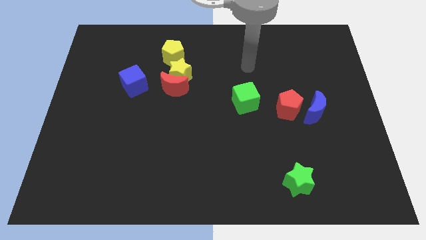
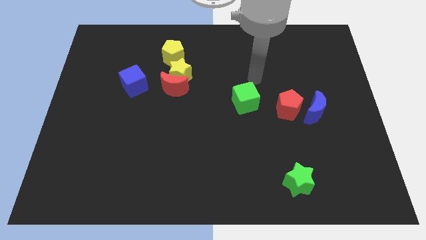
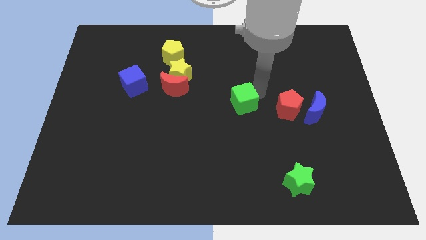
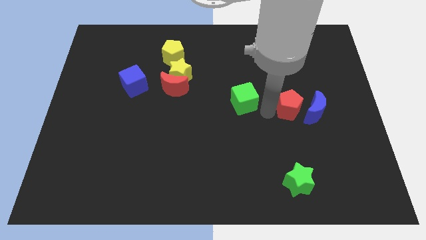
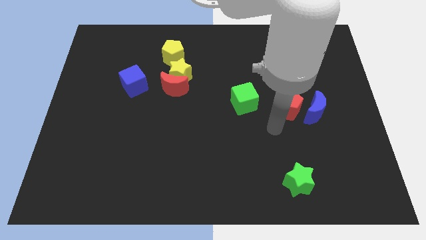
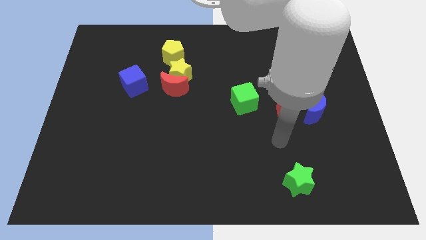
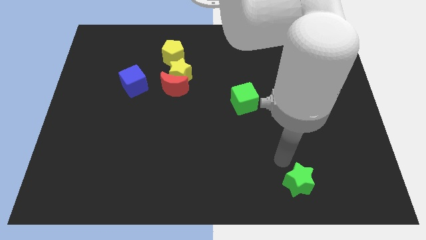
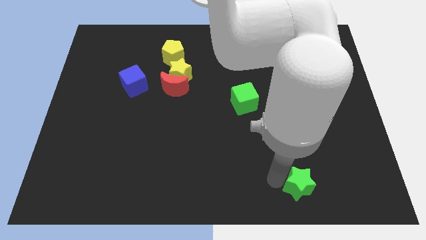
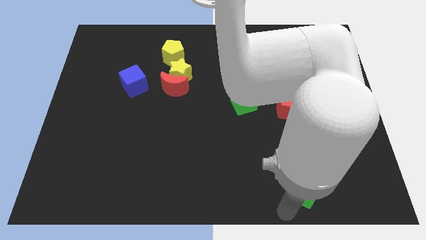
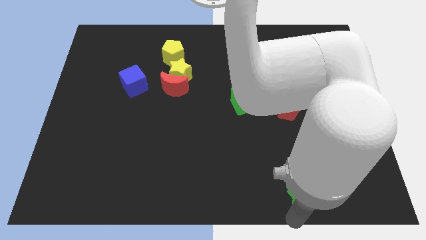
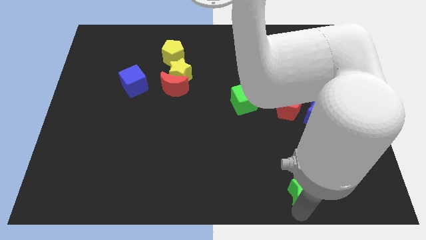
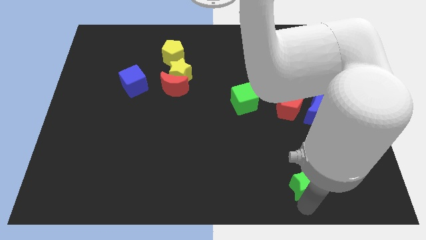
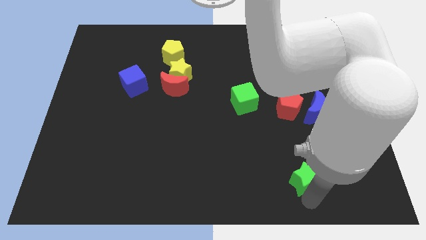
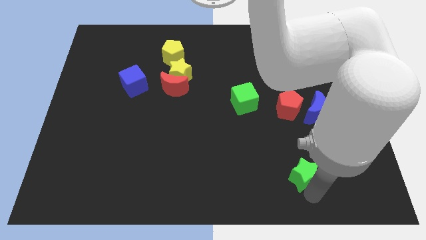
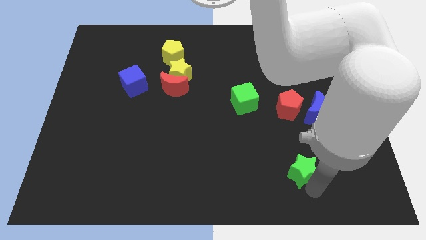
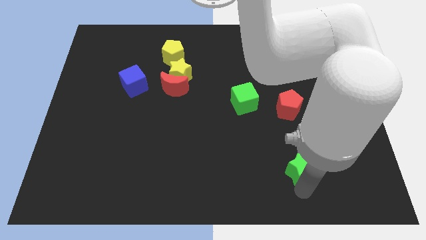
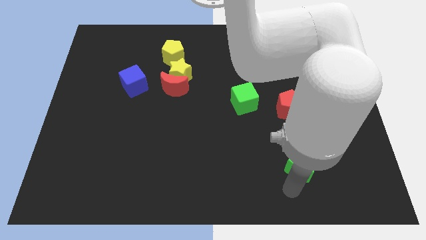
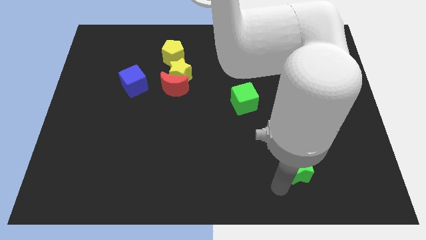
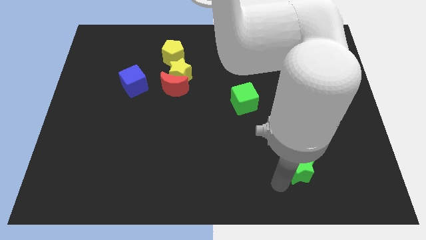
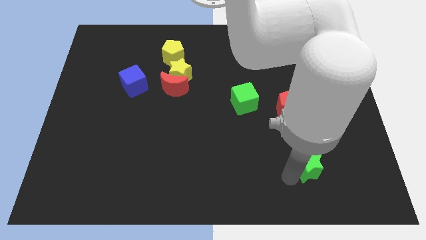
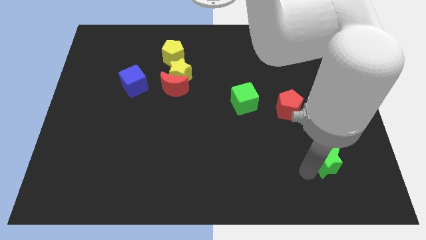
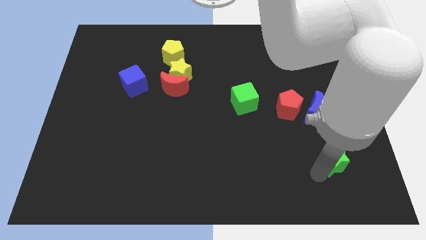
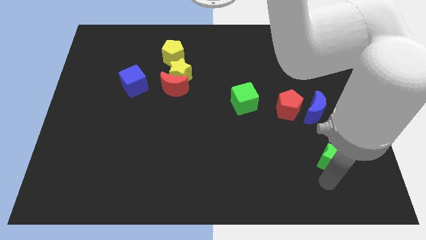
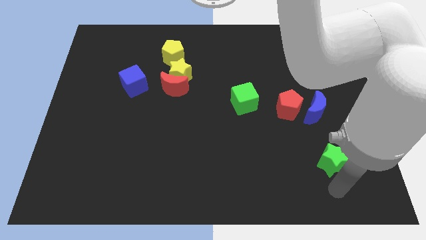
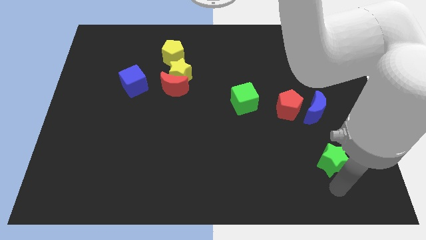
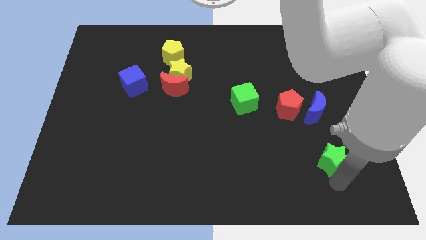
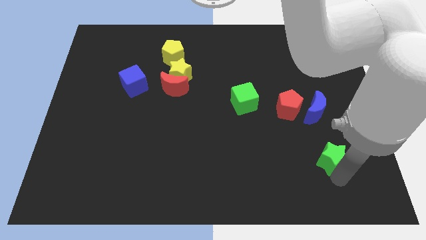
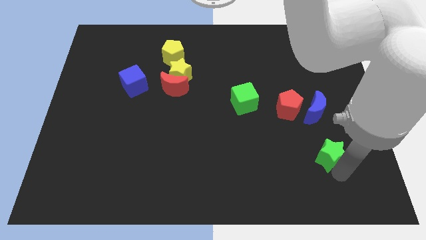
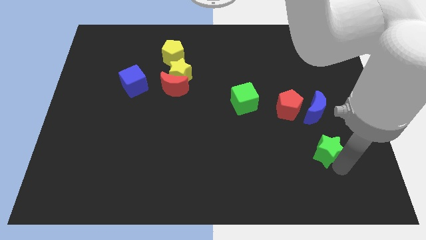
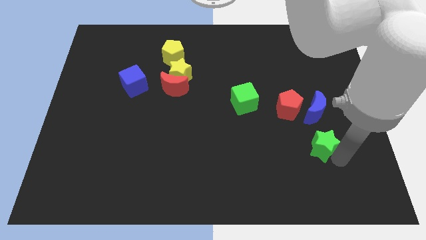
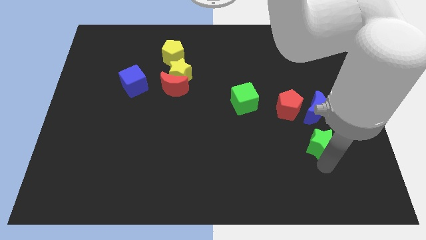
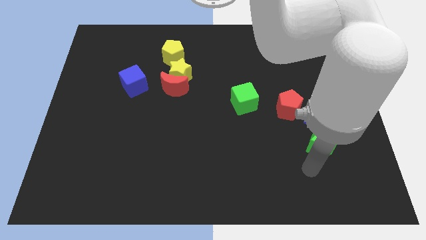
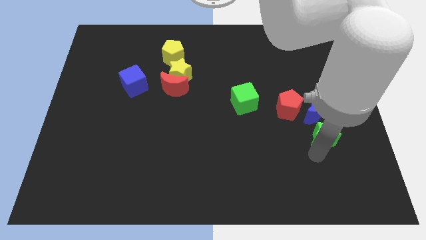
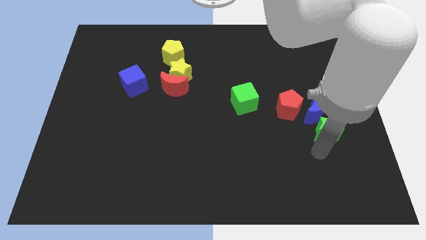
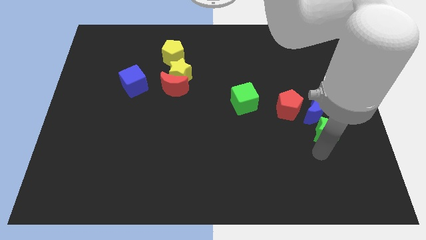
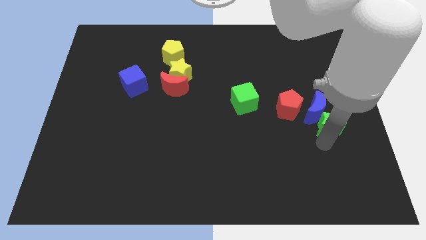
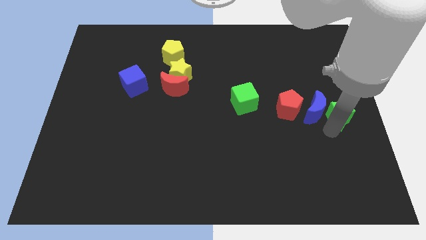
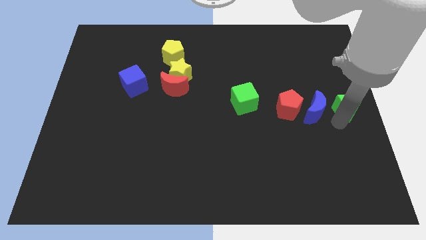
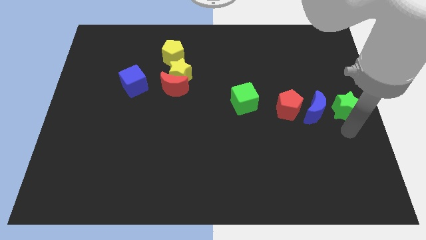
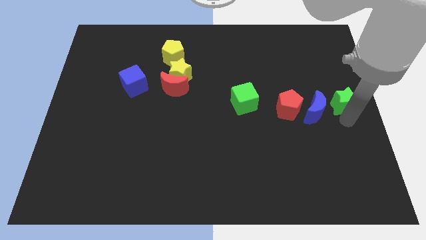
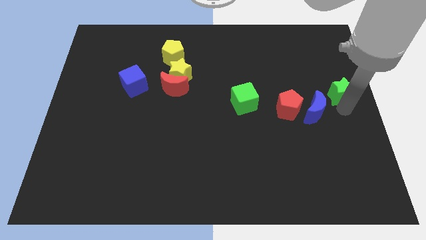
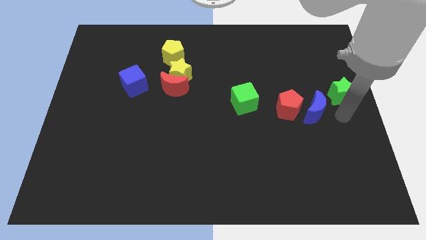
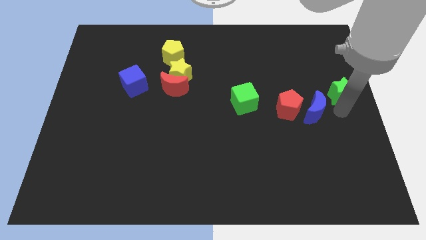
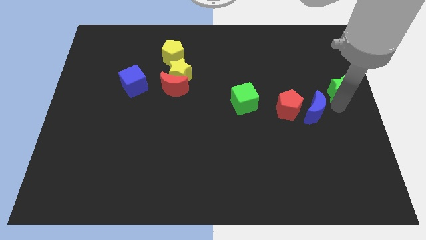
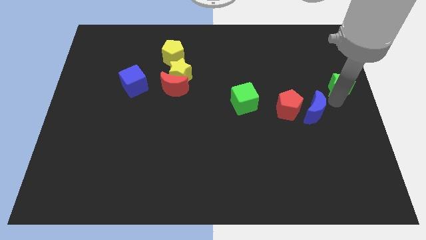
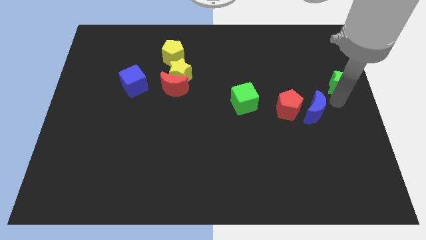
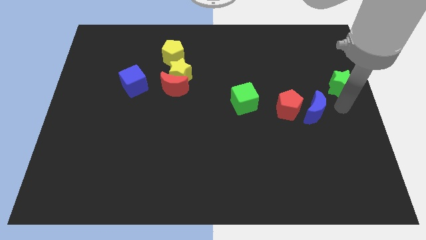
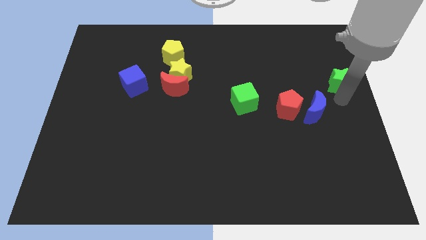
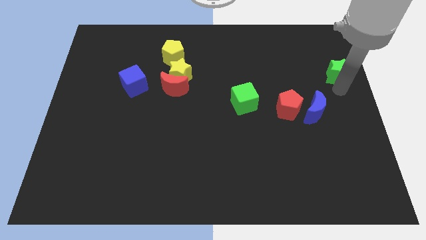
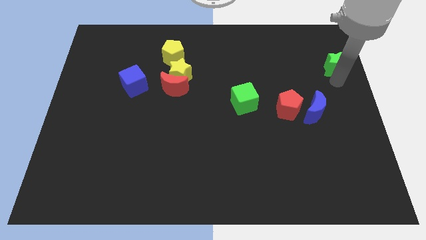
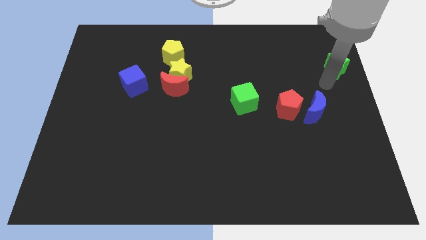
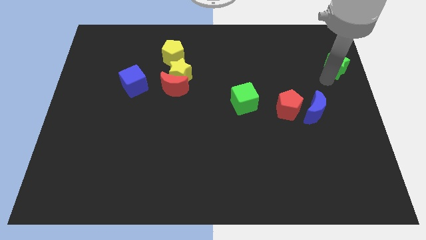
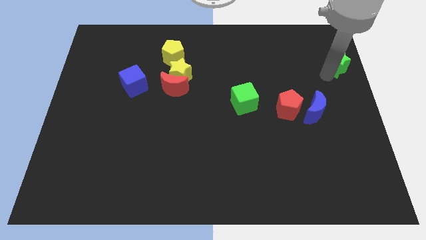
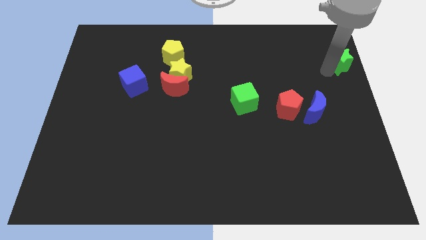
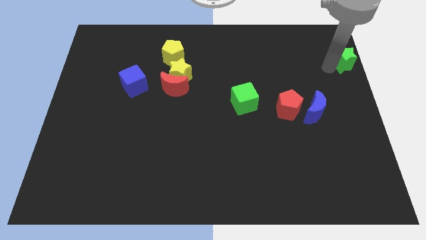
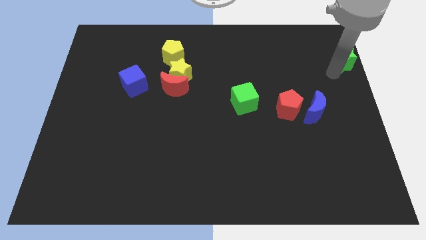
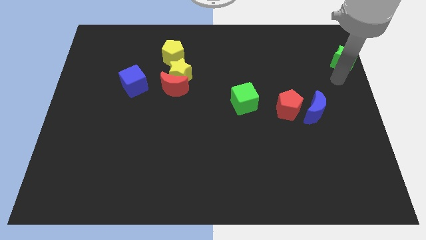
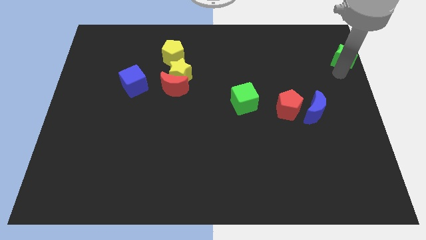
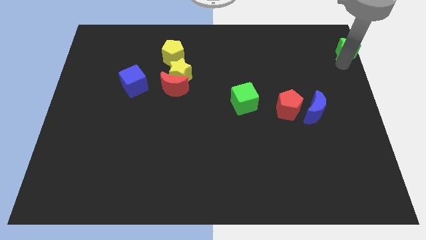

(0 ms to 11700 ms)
move the green star to the top right
